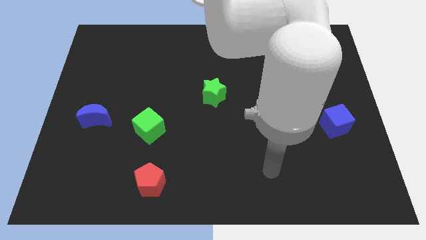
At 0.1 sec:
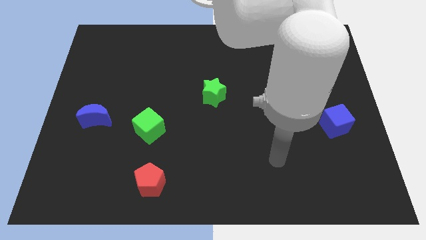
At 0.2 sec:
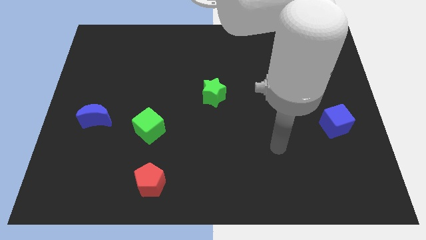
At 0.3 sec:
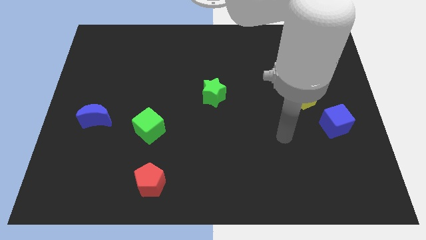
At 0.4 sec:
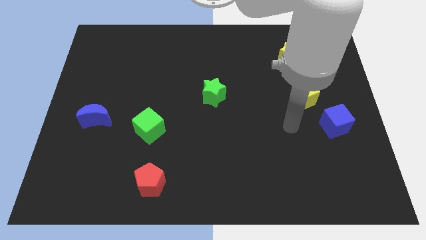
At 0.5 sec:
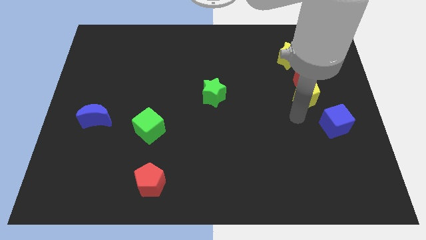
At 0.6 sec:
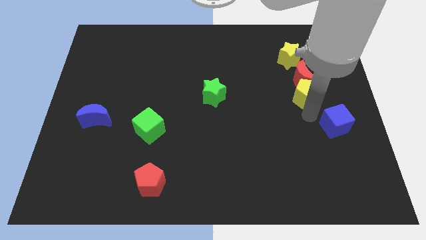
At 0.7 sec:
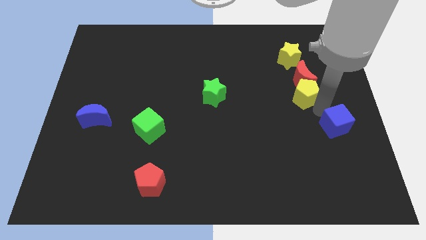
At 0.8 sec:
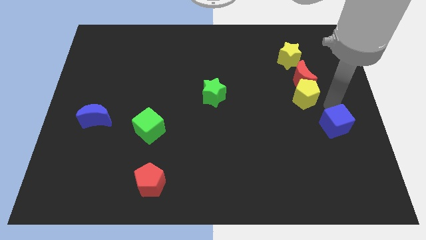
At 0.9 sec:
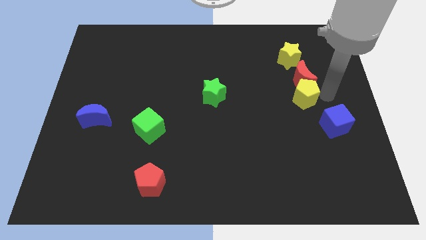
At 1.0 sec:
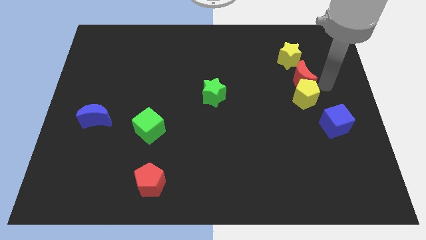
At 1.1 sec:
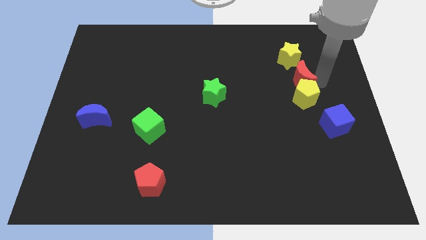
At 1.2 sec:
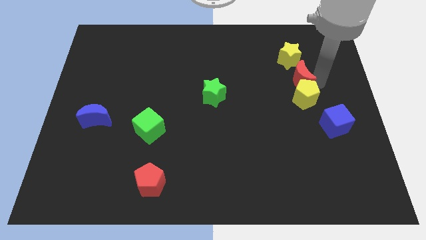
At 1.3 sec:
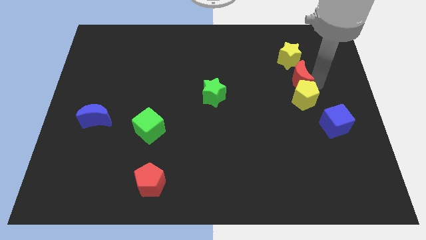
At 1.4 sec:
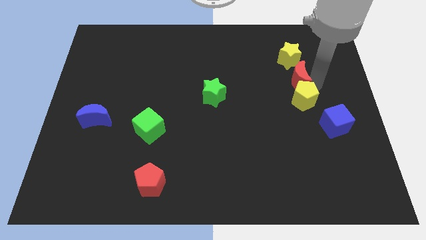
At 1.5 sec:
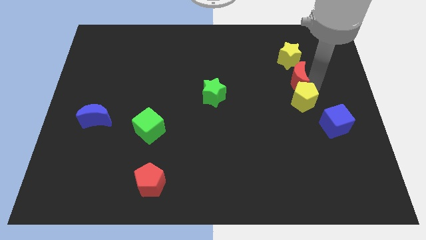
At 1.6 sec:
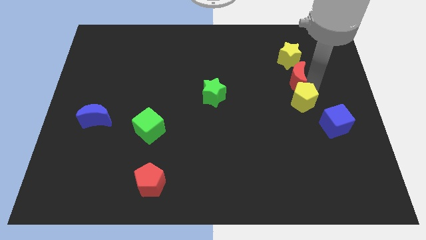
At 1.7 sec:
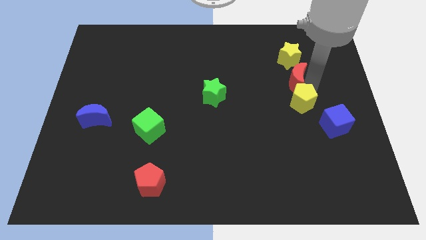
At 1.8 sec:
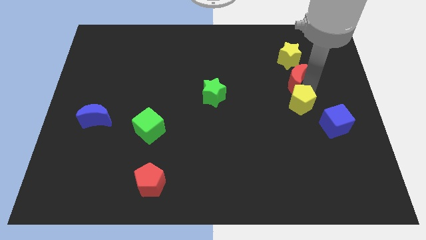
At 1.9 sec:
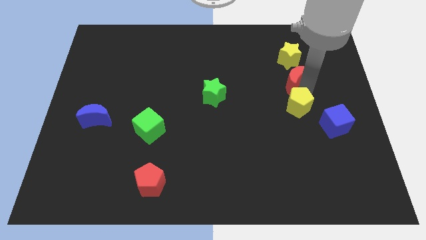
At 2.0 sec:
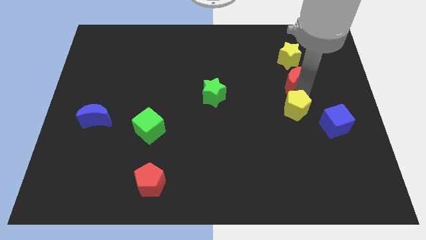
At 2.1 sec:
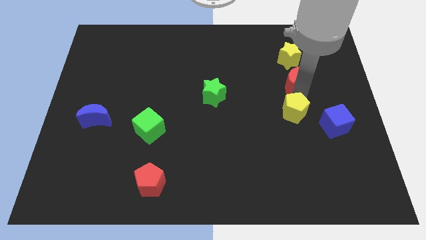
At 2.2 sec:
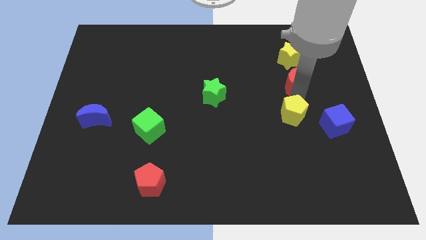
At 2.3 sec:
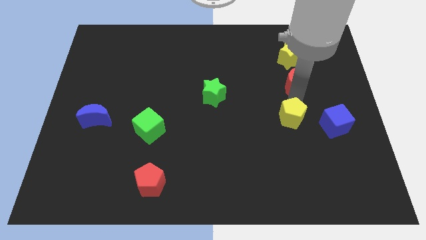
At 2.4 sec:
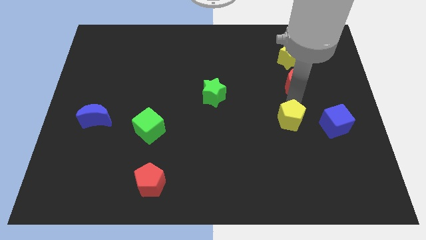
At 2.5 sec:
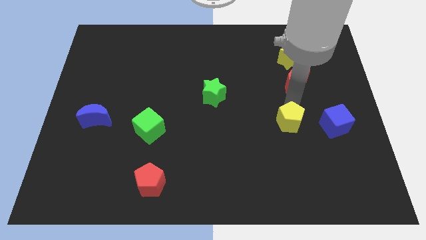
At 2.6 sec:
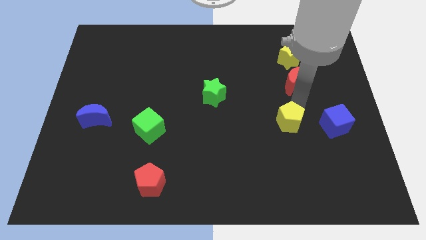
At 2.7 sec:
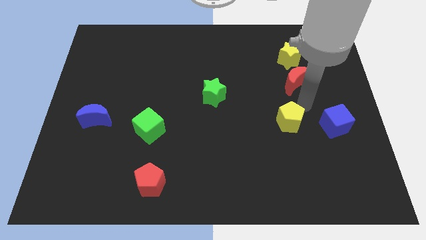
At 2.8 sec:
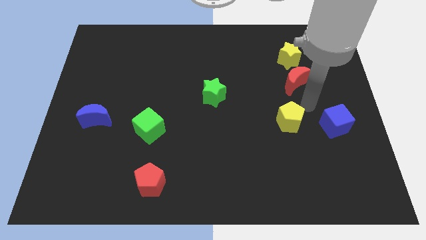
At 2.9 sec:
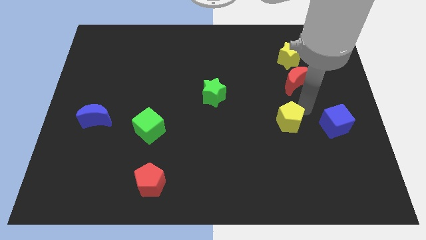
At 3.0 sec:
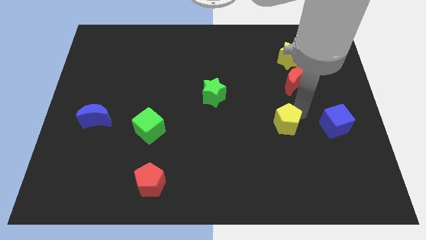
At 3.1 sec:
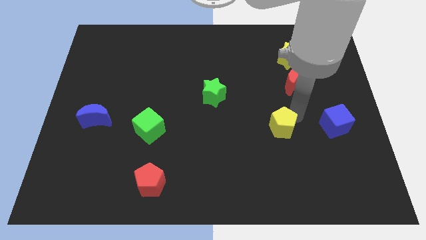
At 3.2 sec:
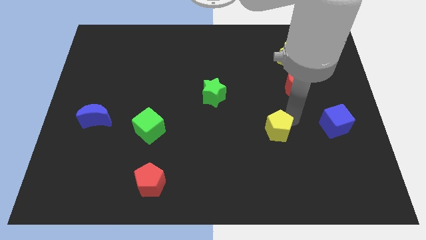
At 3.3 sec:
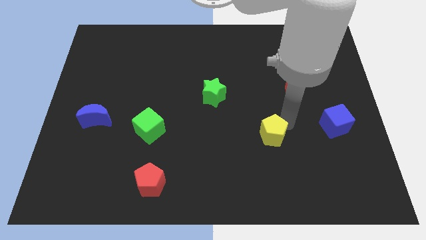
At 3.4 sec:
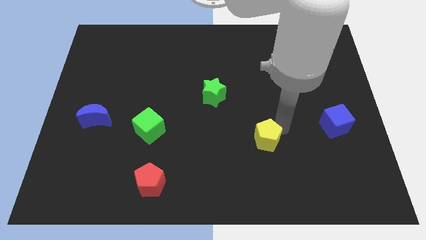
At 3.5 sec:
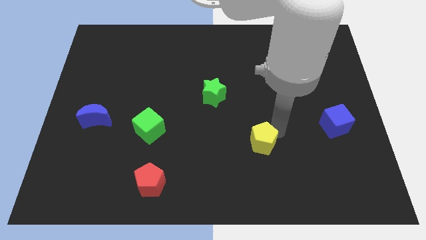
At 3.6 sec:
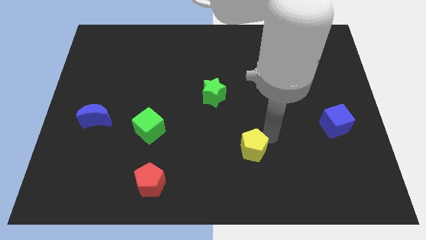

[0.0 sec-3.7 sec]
move the yellow pentagon downwards and then left

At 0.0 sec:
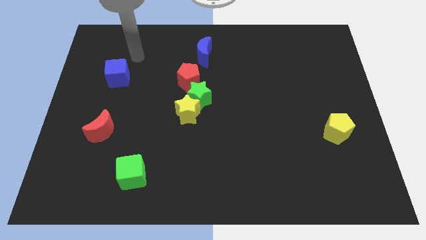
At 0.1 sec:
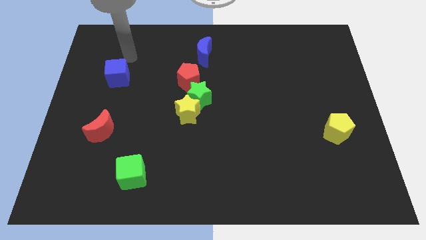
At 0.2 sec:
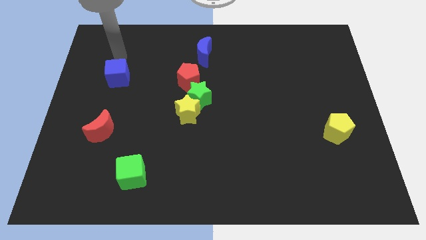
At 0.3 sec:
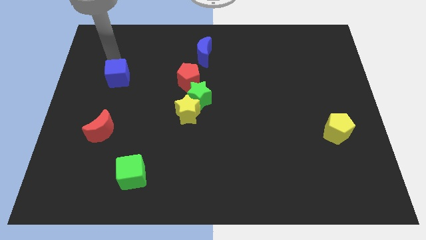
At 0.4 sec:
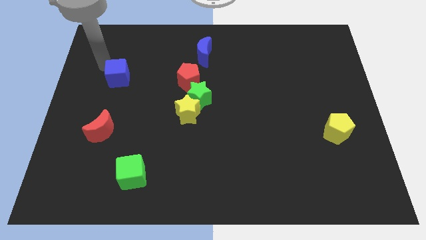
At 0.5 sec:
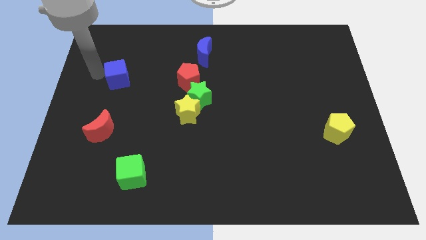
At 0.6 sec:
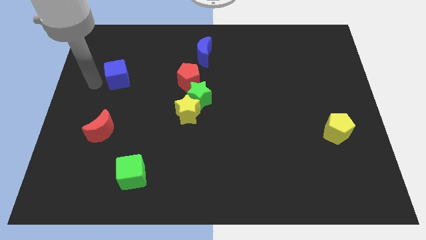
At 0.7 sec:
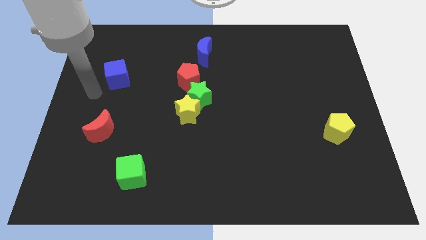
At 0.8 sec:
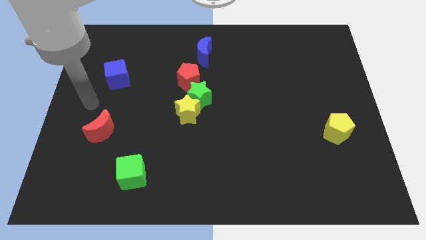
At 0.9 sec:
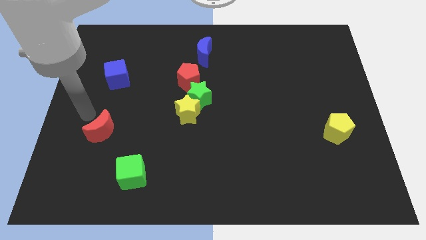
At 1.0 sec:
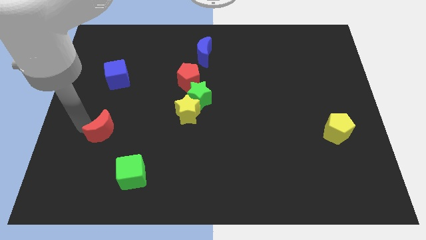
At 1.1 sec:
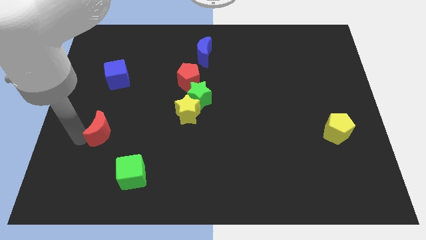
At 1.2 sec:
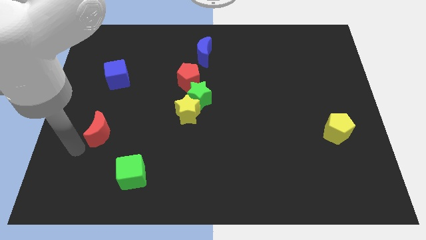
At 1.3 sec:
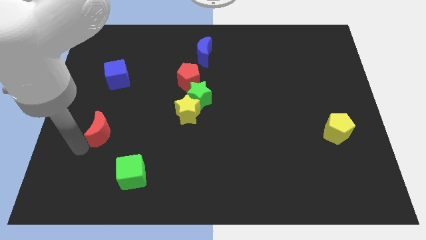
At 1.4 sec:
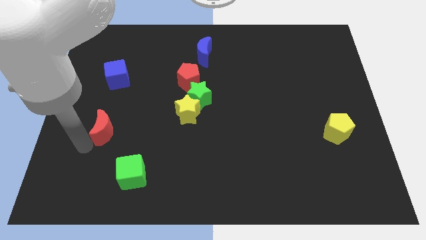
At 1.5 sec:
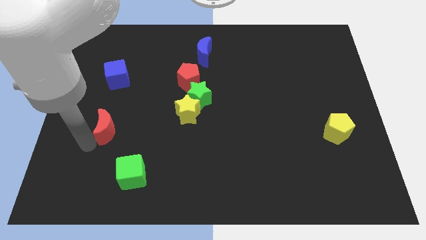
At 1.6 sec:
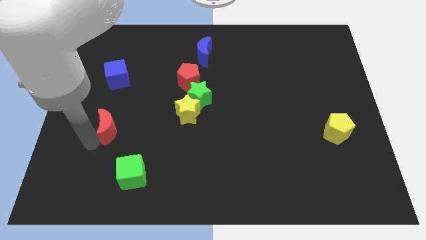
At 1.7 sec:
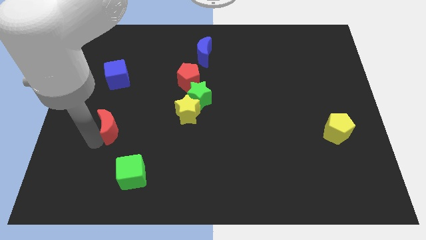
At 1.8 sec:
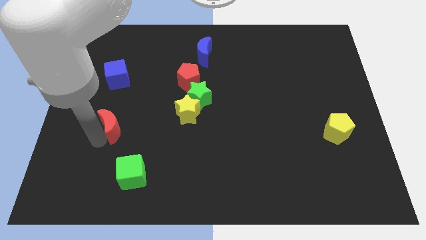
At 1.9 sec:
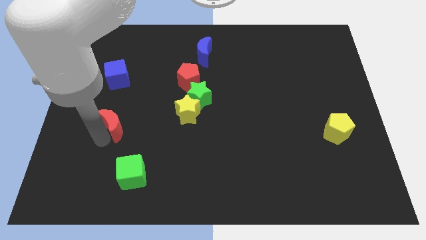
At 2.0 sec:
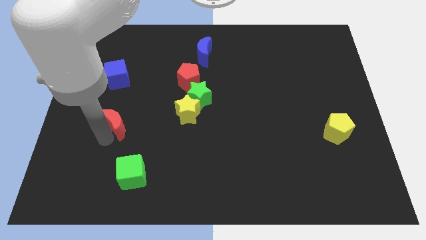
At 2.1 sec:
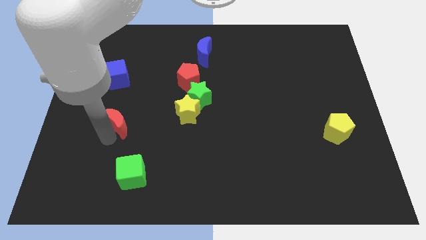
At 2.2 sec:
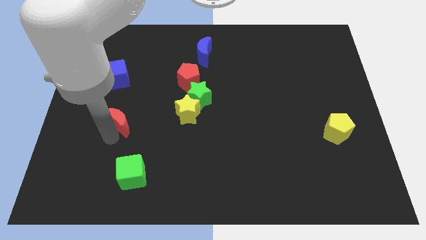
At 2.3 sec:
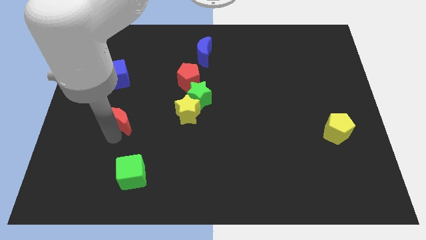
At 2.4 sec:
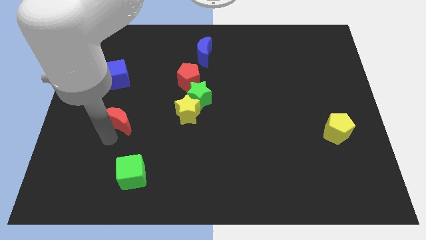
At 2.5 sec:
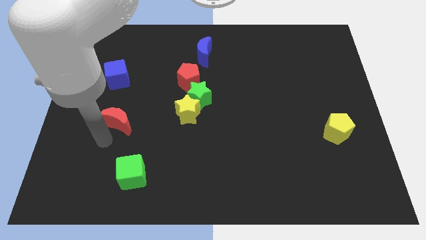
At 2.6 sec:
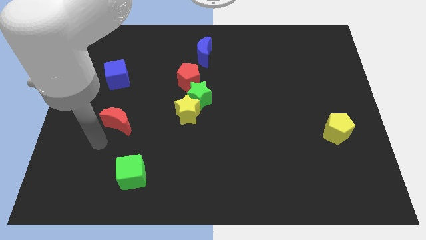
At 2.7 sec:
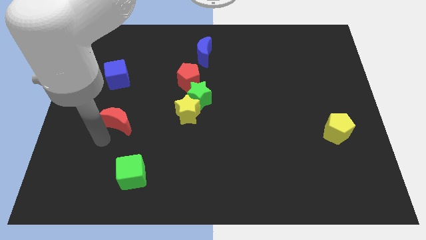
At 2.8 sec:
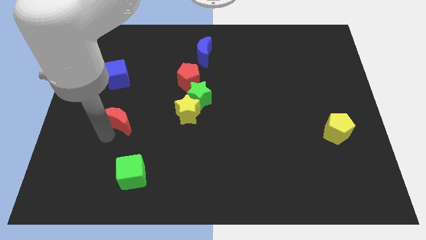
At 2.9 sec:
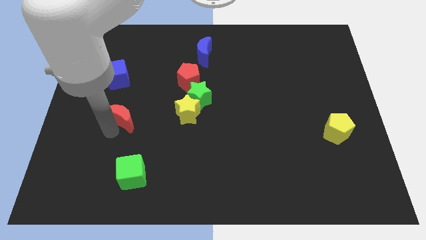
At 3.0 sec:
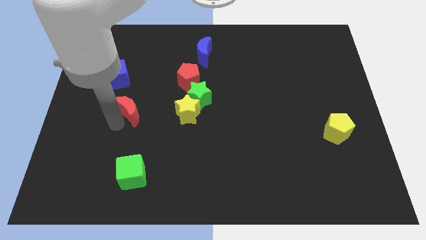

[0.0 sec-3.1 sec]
slightly slide the red moon diagonally upwards and right

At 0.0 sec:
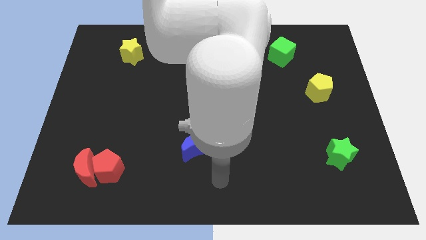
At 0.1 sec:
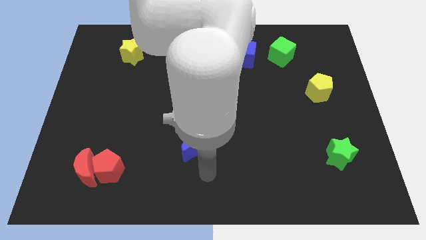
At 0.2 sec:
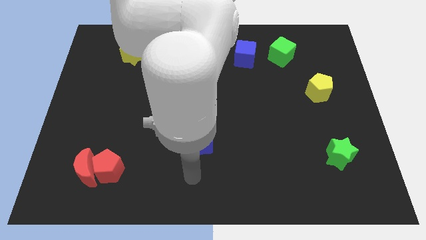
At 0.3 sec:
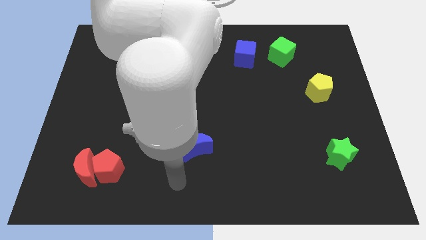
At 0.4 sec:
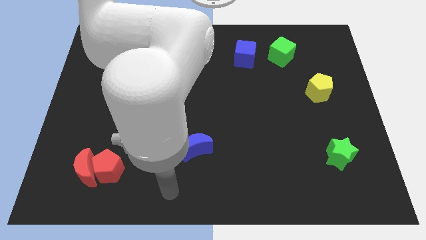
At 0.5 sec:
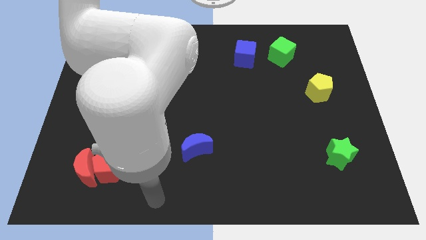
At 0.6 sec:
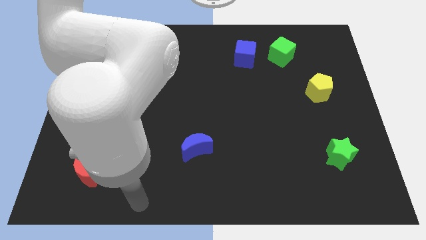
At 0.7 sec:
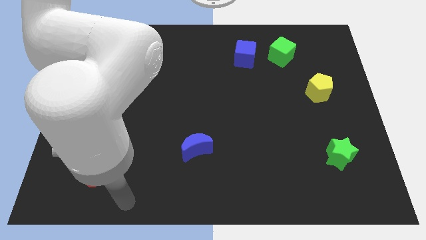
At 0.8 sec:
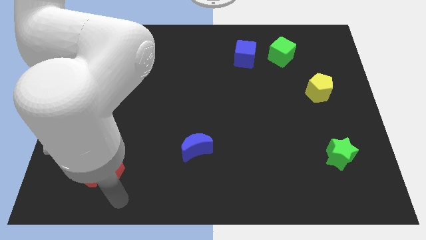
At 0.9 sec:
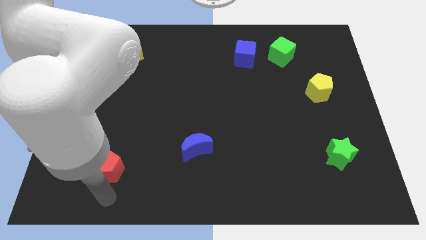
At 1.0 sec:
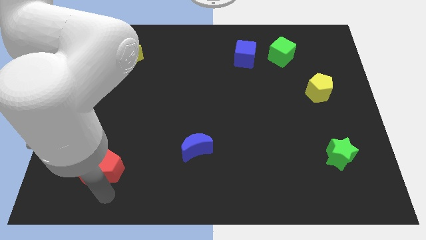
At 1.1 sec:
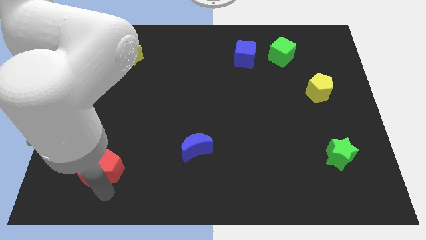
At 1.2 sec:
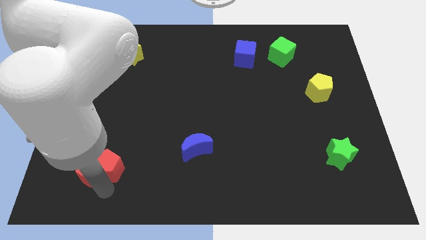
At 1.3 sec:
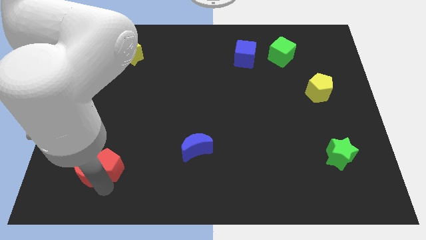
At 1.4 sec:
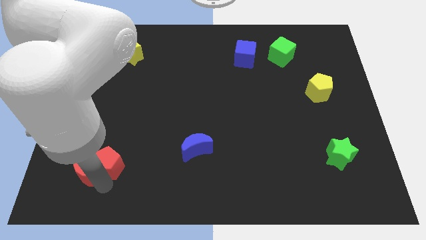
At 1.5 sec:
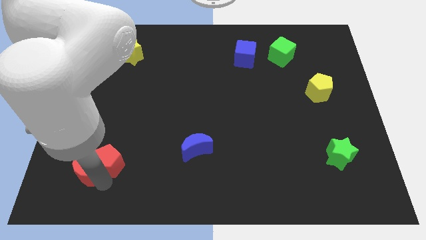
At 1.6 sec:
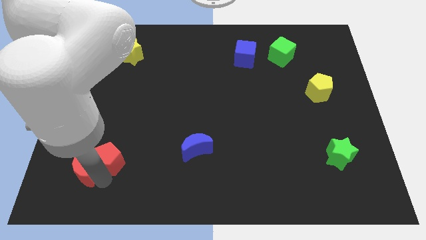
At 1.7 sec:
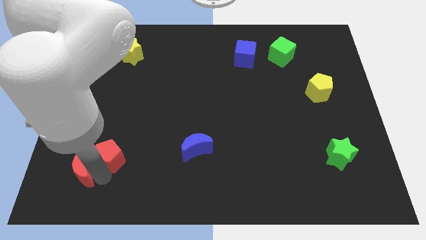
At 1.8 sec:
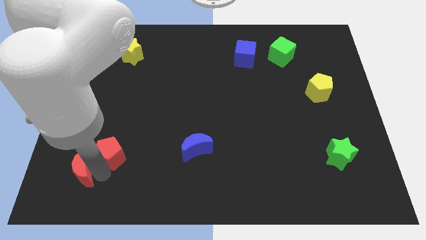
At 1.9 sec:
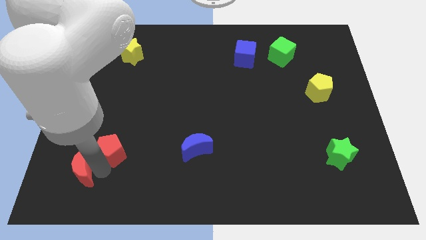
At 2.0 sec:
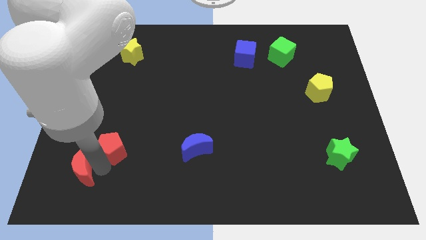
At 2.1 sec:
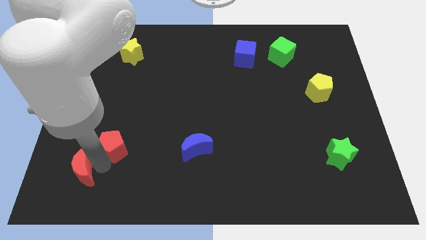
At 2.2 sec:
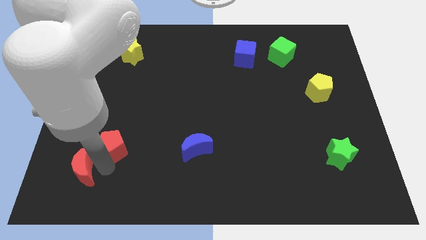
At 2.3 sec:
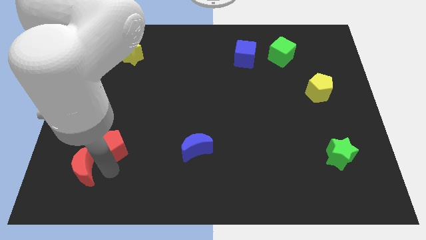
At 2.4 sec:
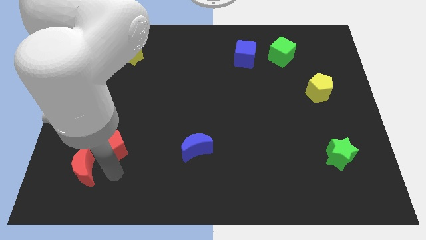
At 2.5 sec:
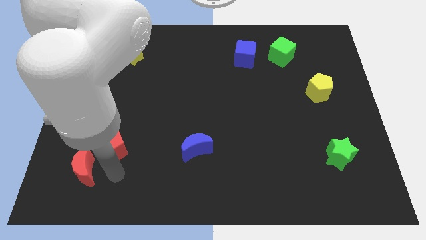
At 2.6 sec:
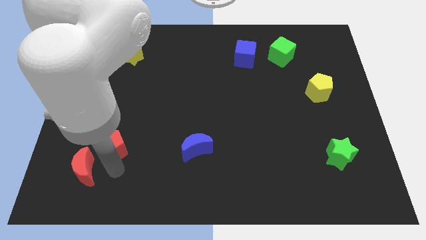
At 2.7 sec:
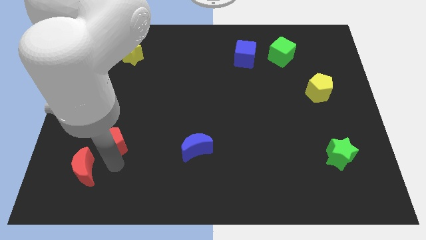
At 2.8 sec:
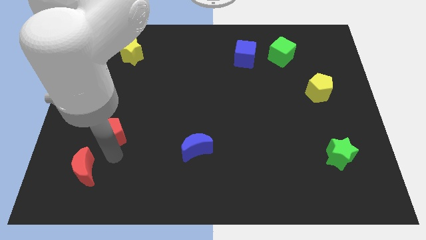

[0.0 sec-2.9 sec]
slightly move the red pentagon upwards
